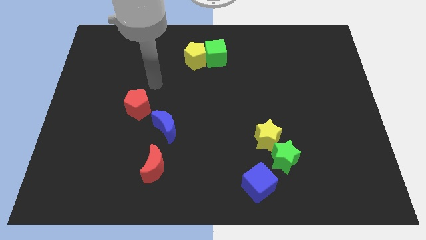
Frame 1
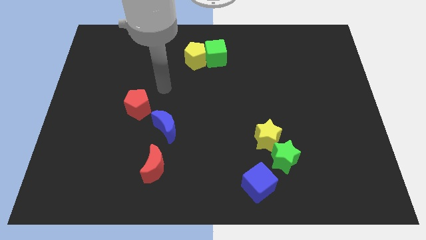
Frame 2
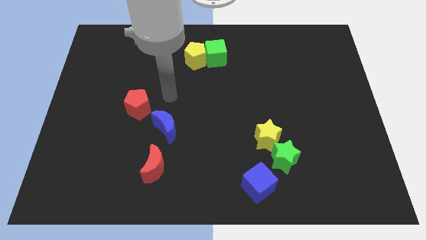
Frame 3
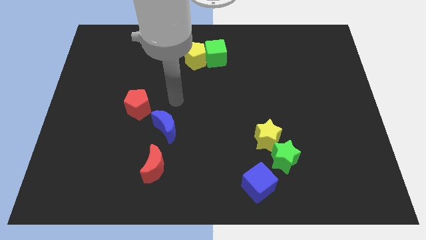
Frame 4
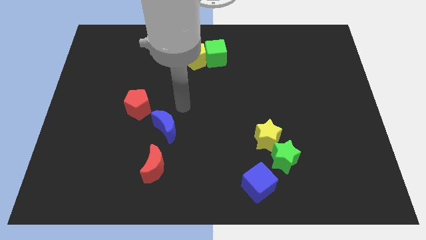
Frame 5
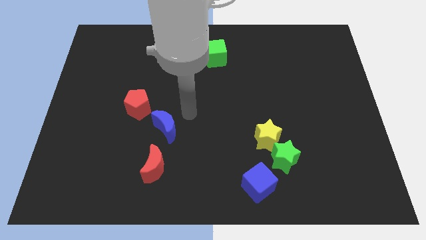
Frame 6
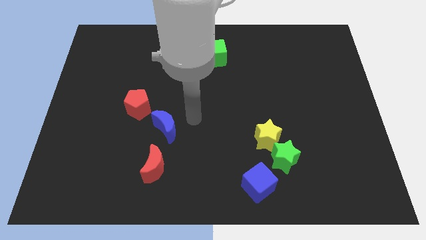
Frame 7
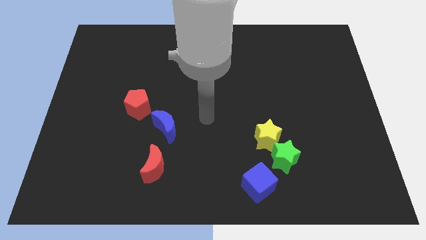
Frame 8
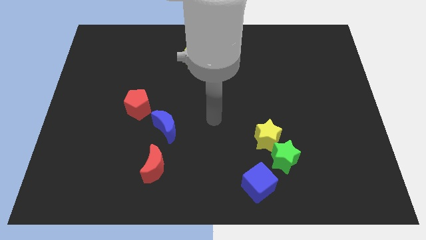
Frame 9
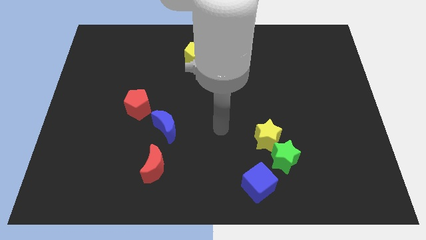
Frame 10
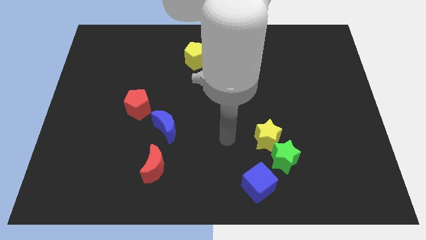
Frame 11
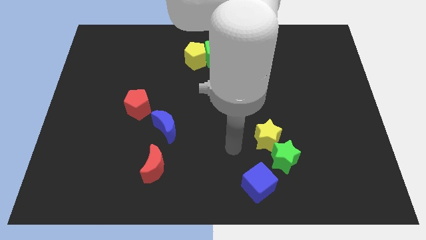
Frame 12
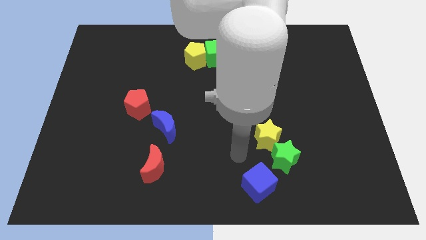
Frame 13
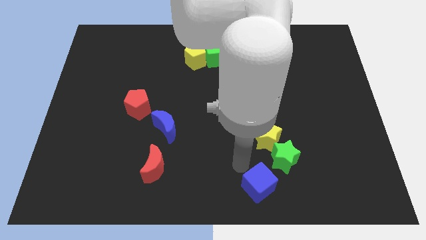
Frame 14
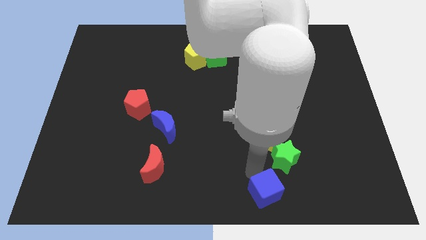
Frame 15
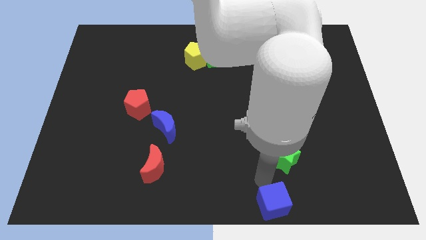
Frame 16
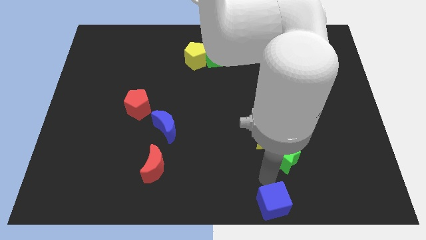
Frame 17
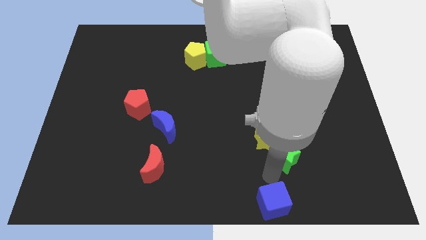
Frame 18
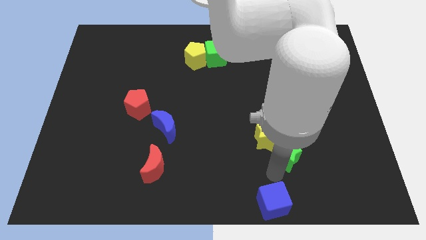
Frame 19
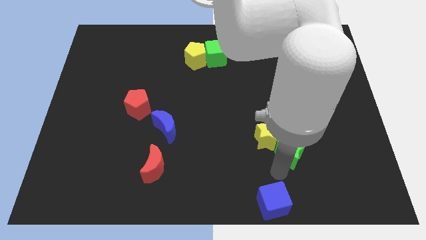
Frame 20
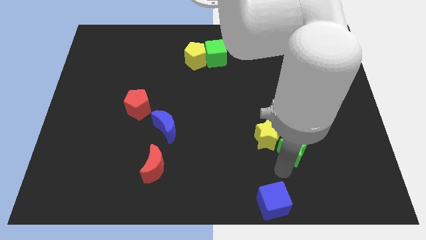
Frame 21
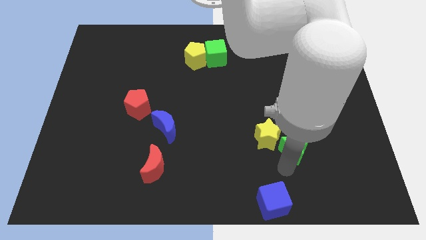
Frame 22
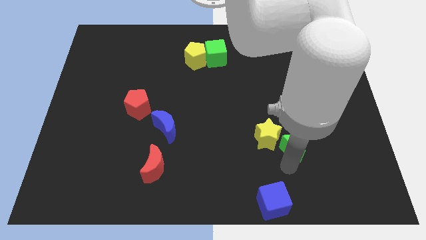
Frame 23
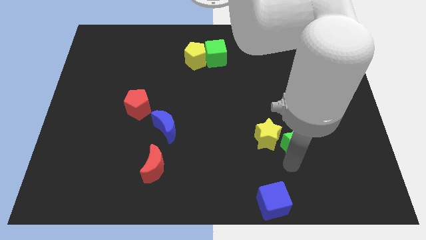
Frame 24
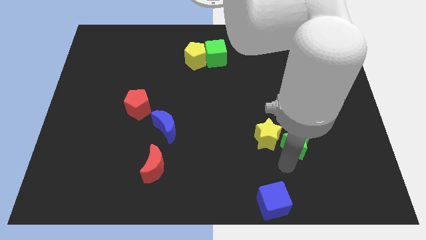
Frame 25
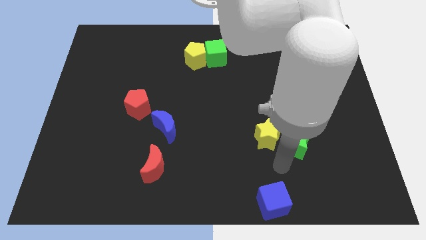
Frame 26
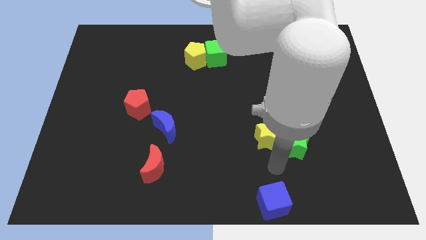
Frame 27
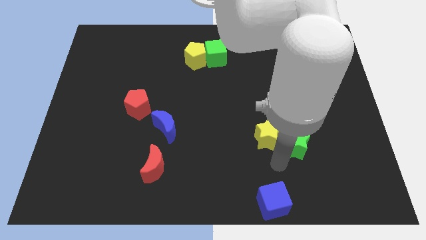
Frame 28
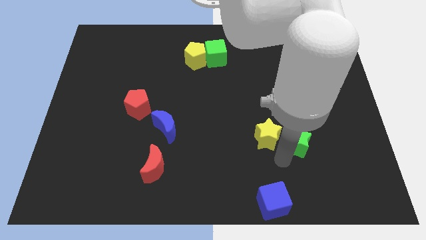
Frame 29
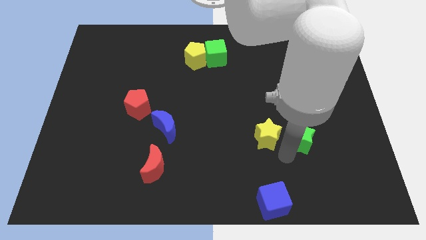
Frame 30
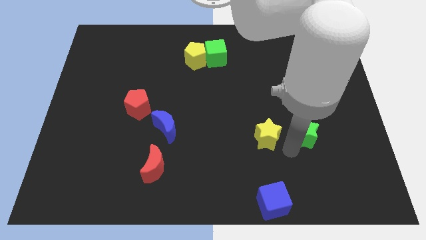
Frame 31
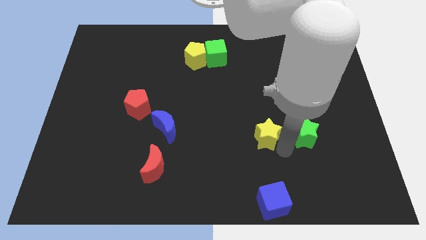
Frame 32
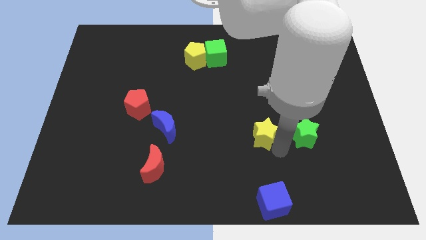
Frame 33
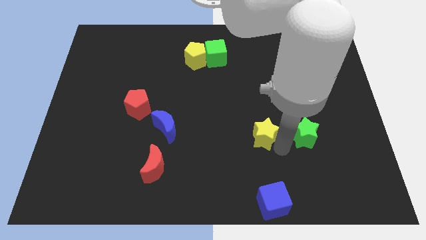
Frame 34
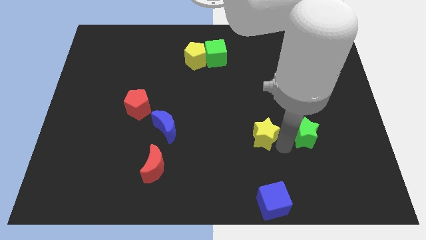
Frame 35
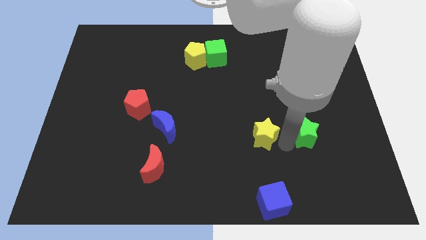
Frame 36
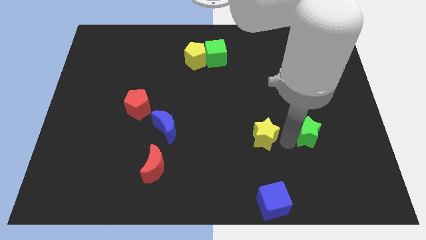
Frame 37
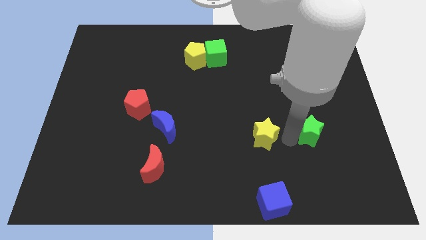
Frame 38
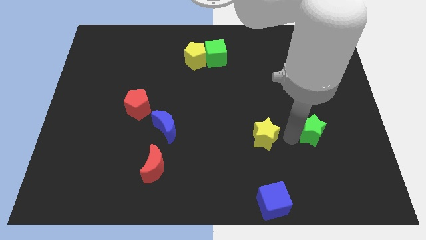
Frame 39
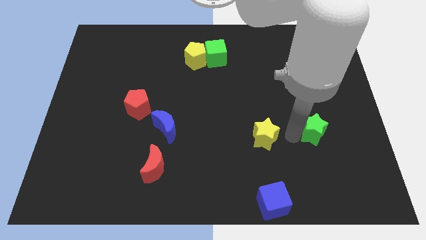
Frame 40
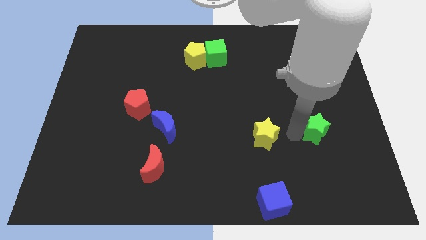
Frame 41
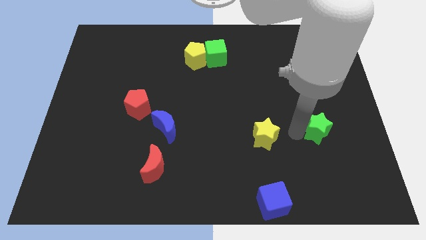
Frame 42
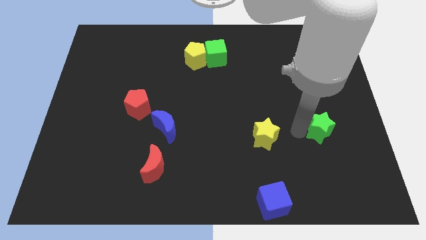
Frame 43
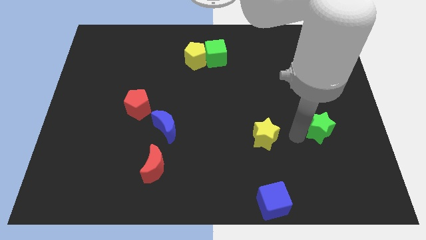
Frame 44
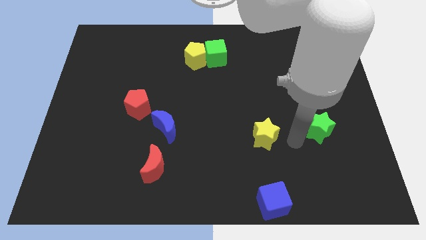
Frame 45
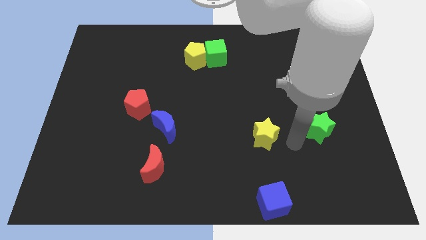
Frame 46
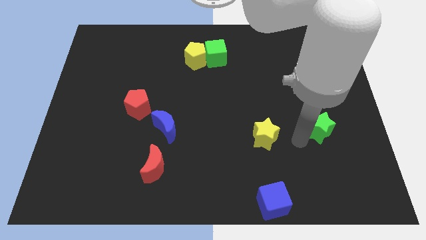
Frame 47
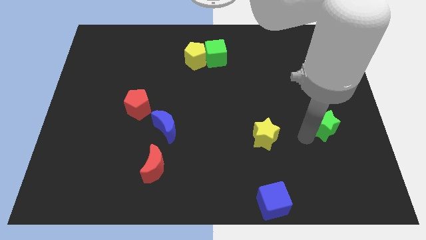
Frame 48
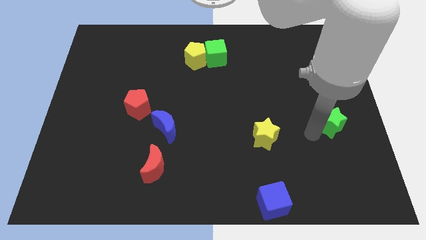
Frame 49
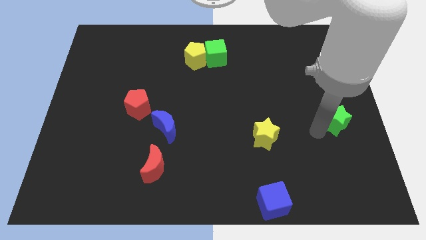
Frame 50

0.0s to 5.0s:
slide the green star to the center right

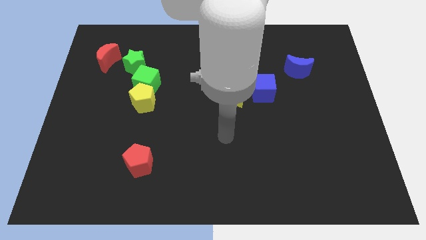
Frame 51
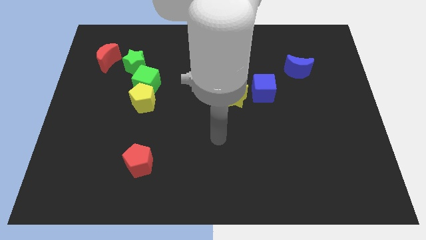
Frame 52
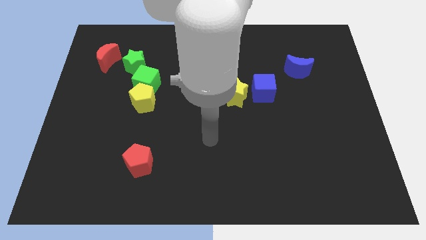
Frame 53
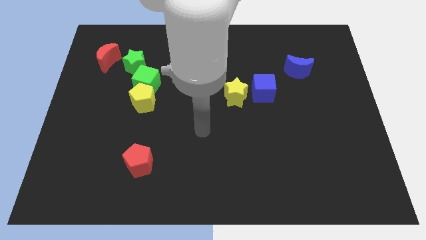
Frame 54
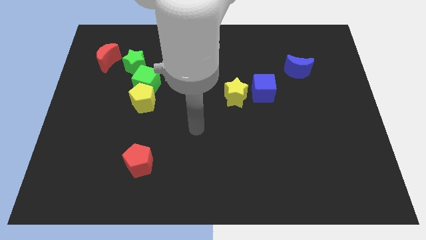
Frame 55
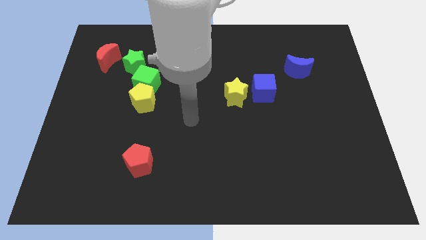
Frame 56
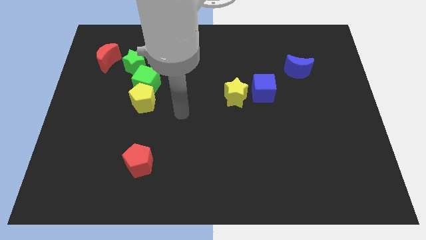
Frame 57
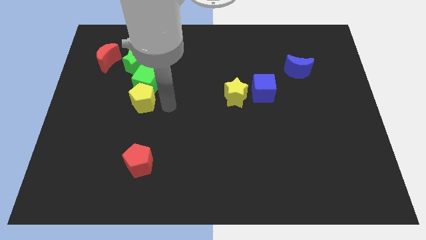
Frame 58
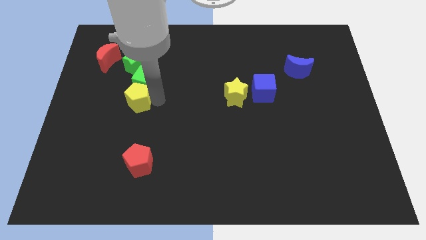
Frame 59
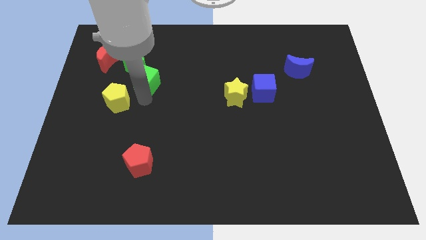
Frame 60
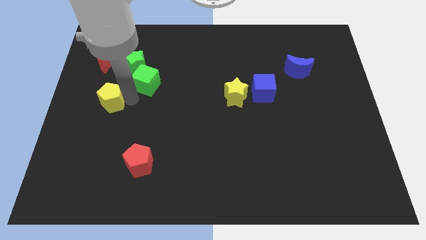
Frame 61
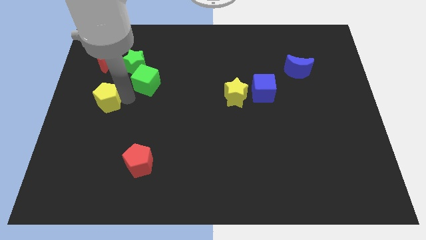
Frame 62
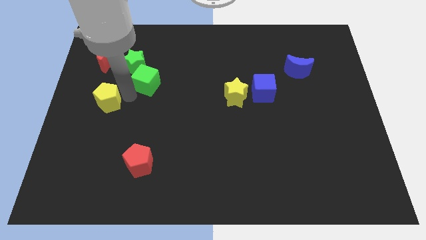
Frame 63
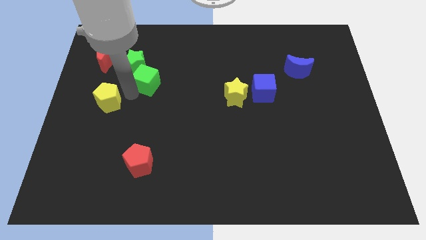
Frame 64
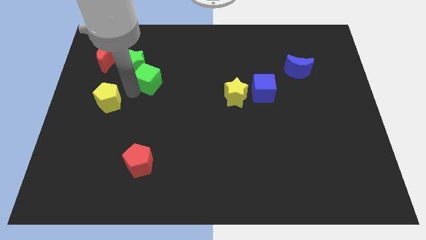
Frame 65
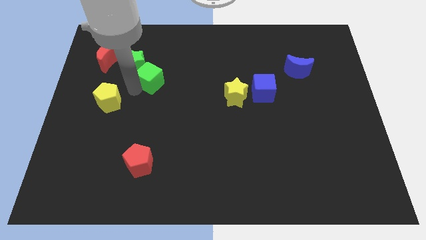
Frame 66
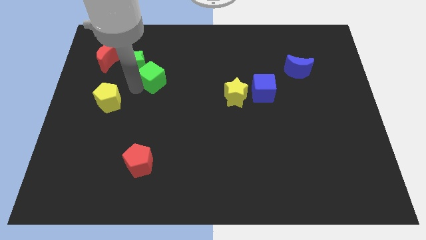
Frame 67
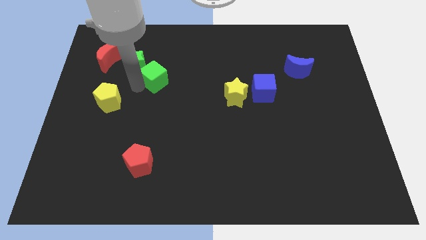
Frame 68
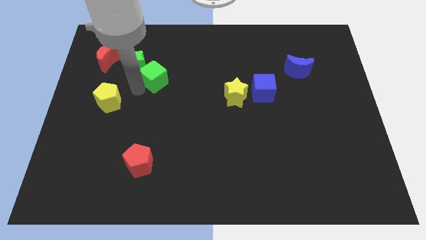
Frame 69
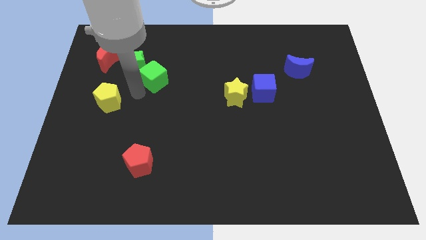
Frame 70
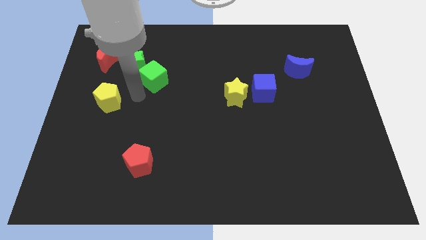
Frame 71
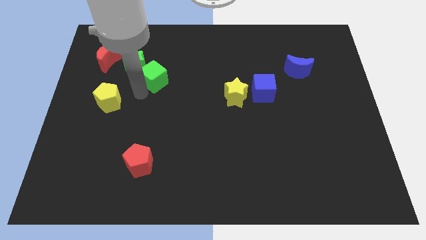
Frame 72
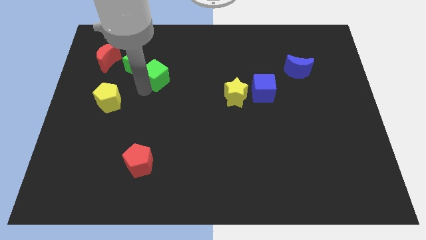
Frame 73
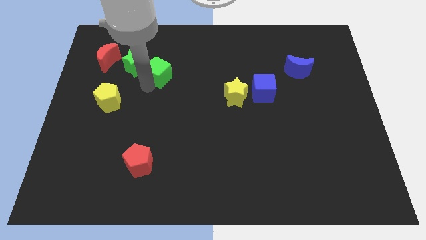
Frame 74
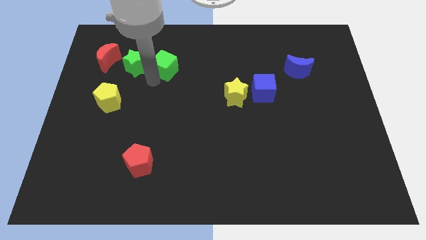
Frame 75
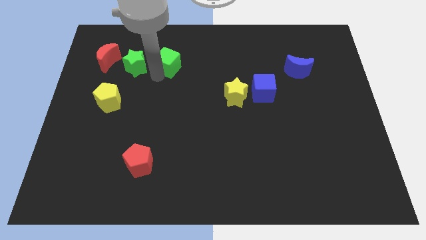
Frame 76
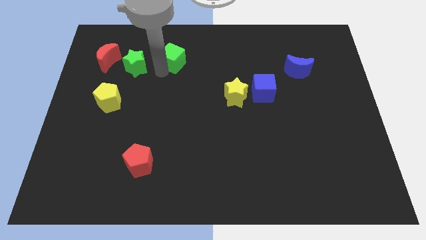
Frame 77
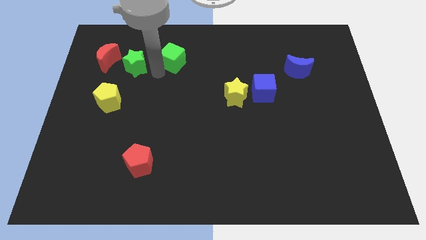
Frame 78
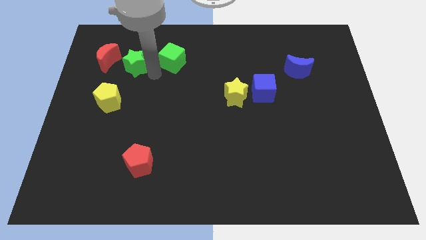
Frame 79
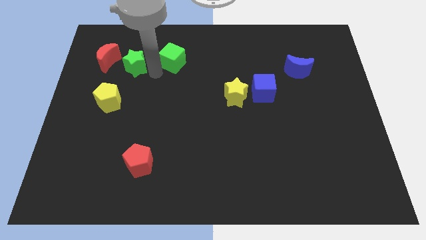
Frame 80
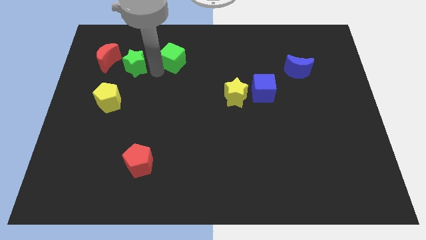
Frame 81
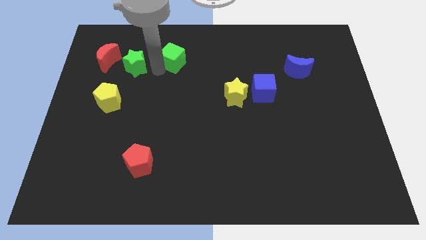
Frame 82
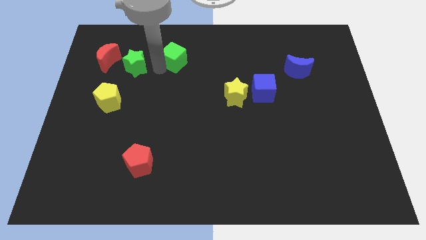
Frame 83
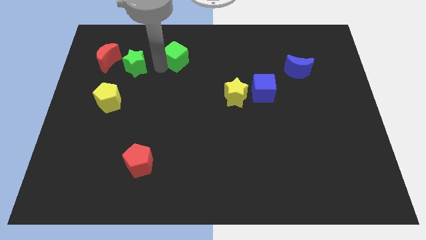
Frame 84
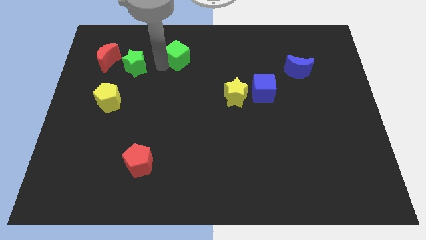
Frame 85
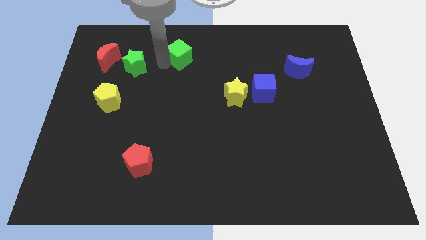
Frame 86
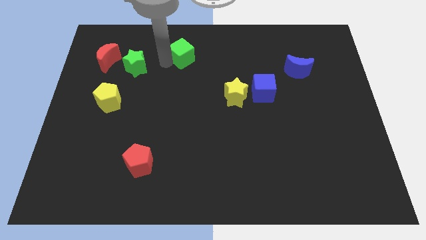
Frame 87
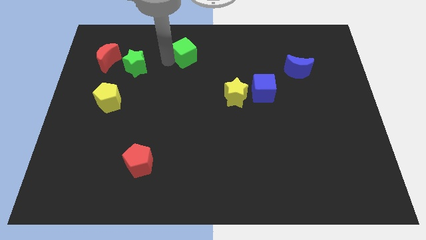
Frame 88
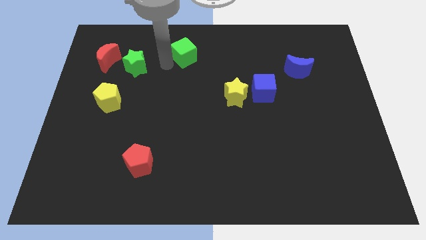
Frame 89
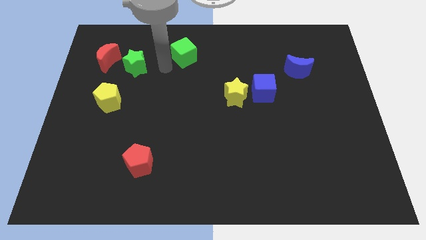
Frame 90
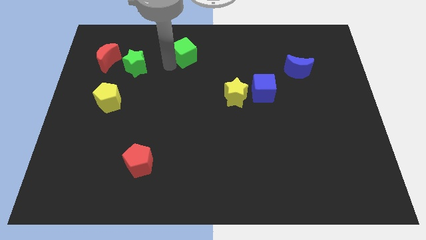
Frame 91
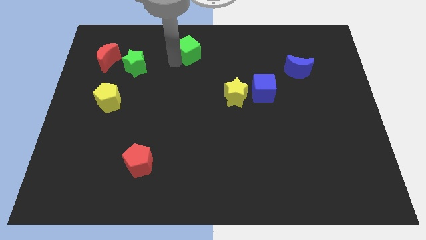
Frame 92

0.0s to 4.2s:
slide the green cube to the towards your base
